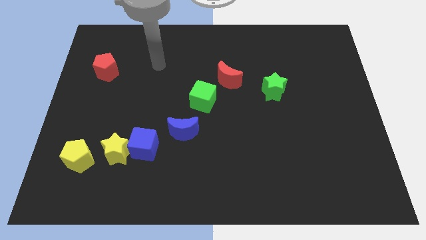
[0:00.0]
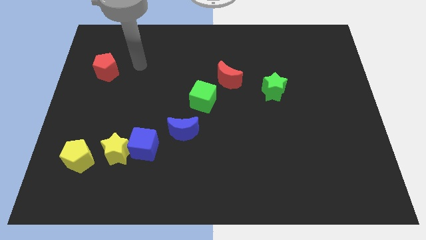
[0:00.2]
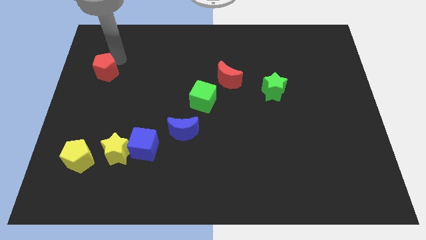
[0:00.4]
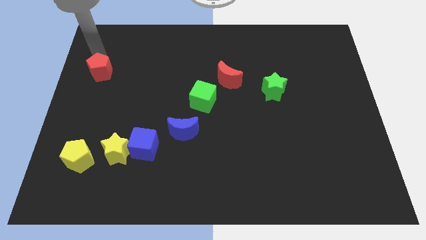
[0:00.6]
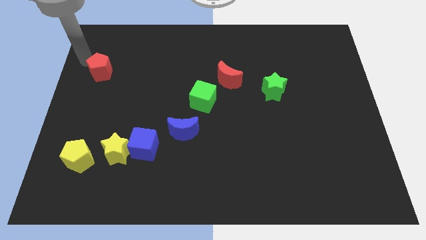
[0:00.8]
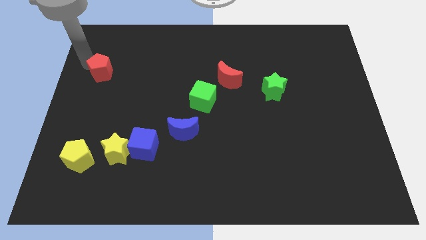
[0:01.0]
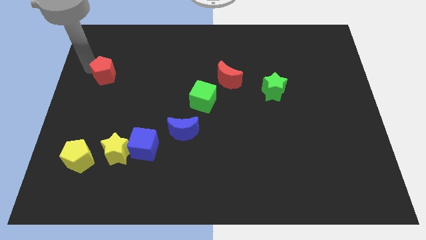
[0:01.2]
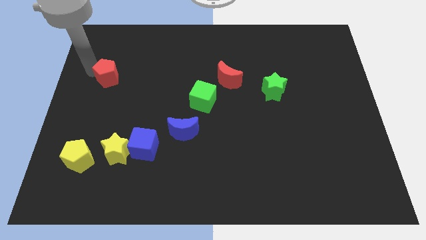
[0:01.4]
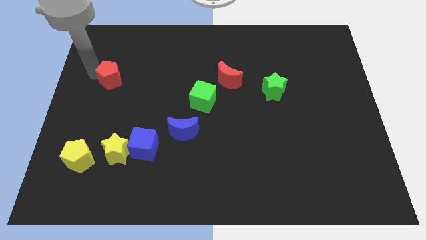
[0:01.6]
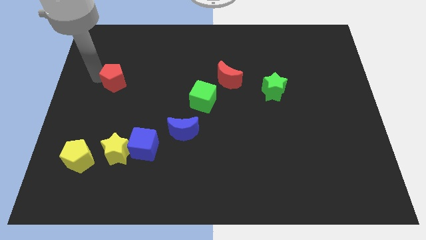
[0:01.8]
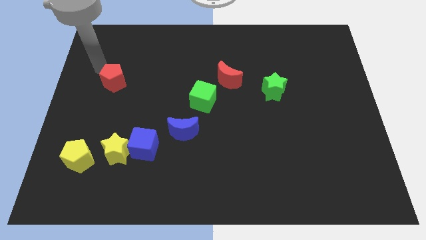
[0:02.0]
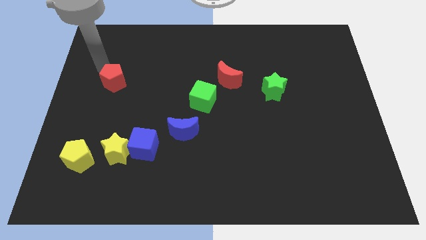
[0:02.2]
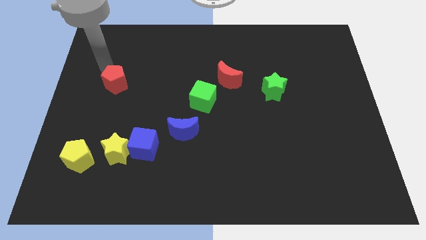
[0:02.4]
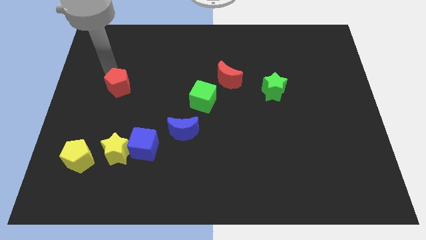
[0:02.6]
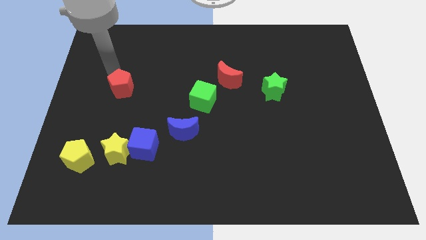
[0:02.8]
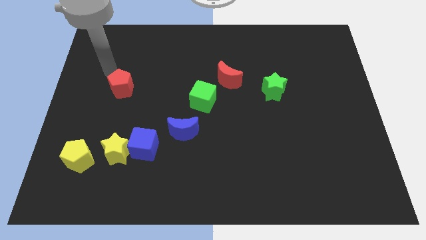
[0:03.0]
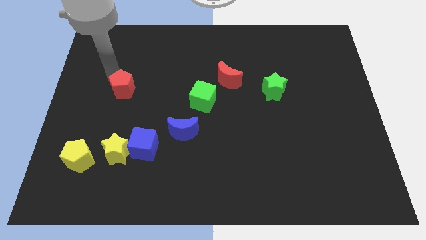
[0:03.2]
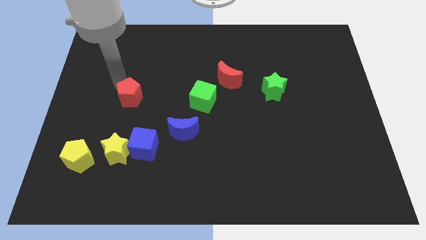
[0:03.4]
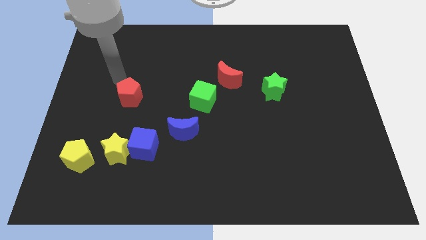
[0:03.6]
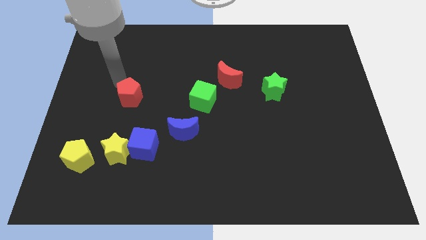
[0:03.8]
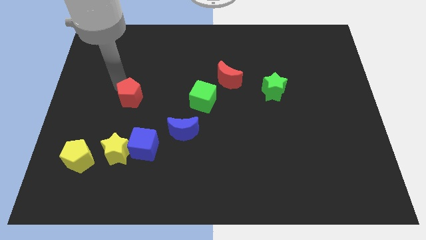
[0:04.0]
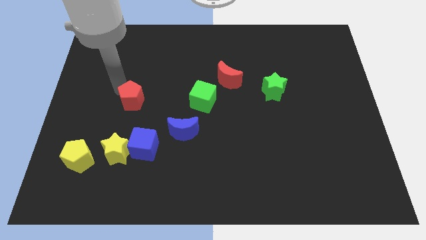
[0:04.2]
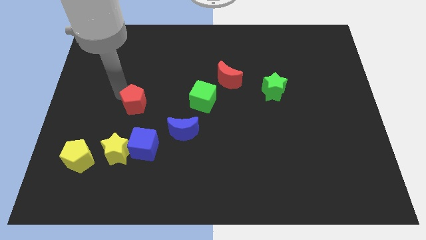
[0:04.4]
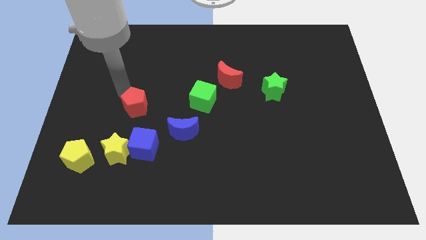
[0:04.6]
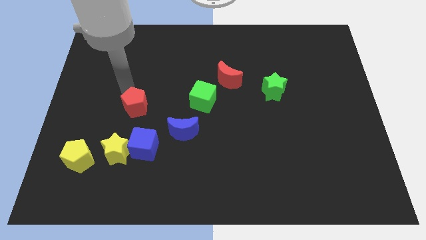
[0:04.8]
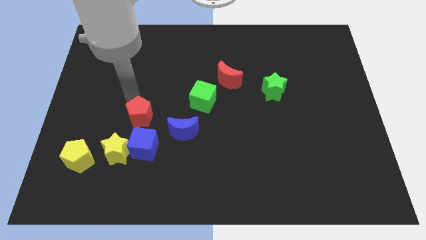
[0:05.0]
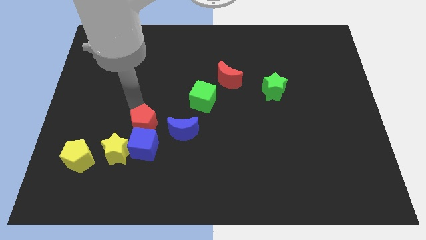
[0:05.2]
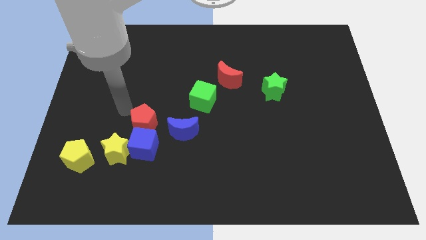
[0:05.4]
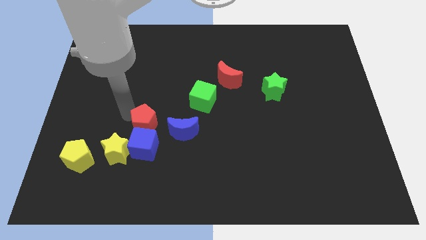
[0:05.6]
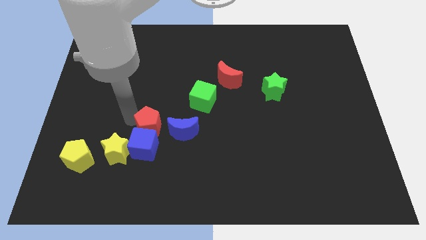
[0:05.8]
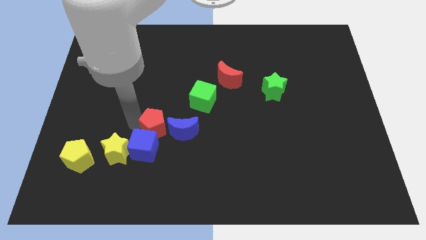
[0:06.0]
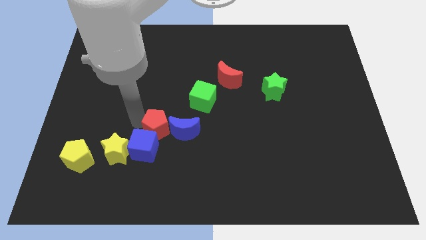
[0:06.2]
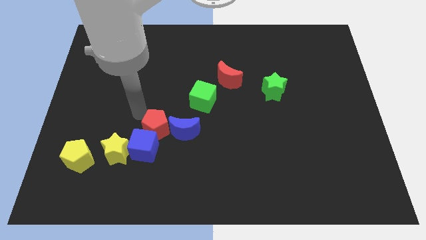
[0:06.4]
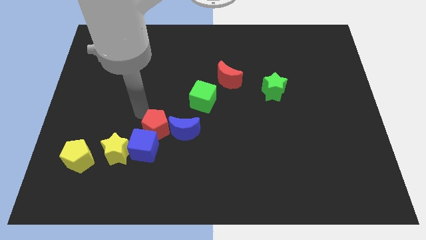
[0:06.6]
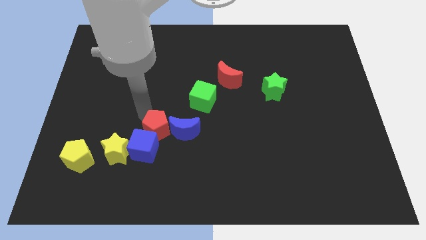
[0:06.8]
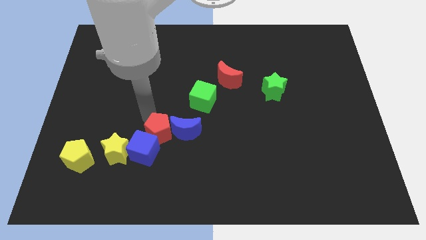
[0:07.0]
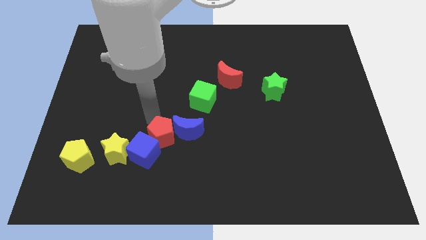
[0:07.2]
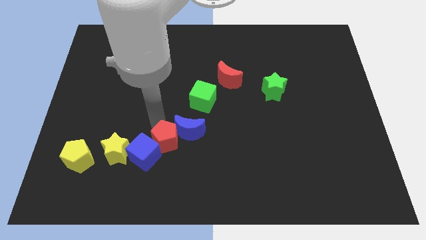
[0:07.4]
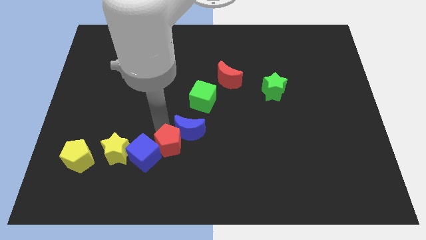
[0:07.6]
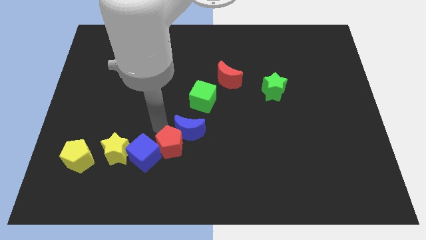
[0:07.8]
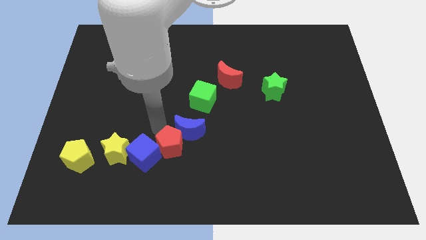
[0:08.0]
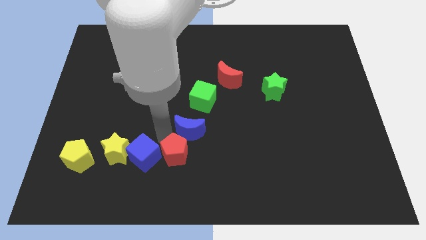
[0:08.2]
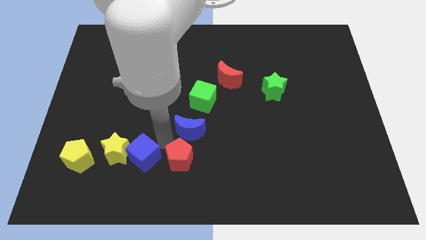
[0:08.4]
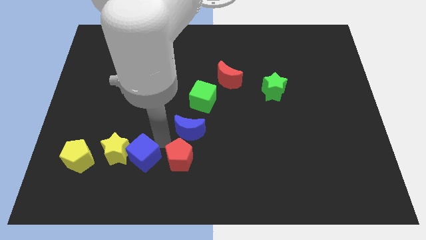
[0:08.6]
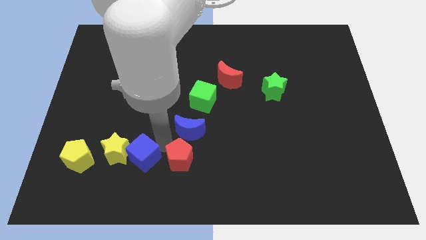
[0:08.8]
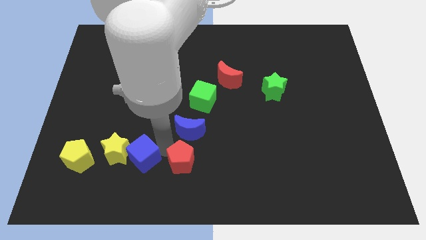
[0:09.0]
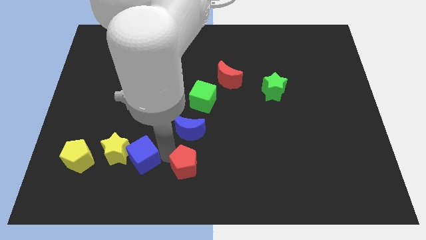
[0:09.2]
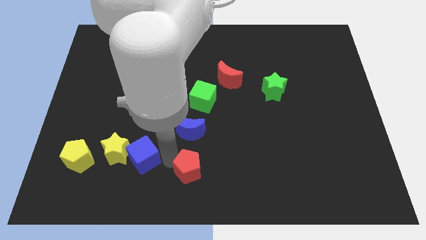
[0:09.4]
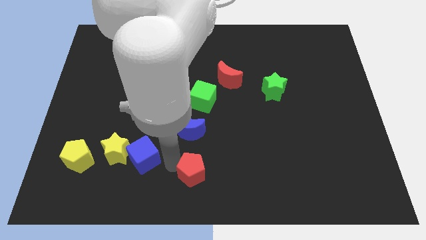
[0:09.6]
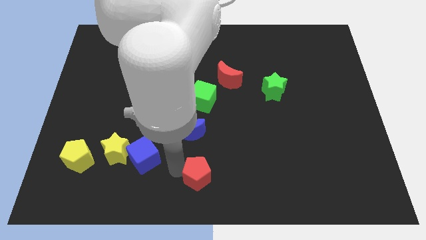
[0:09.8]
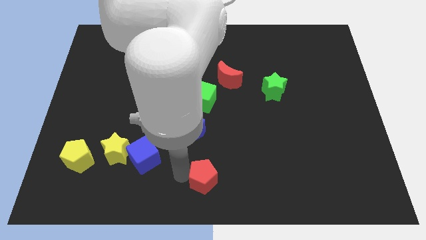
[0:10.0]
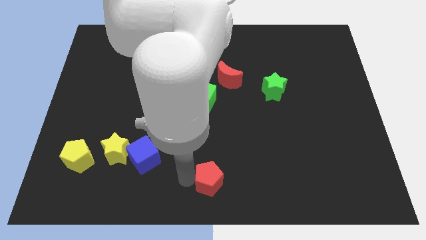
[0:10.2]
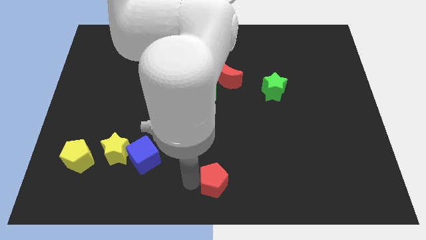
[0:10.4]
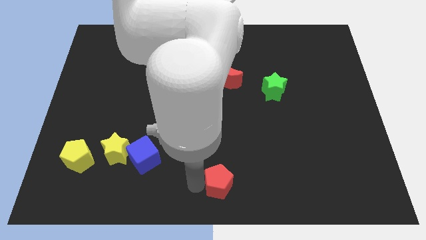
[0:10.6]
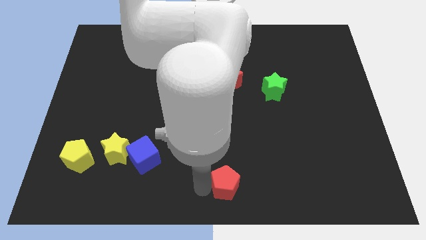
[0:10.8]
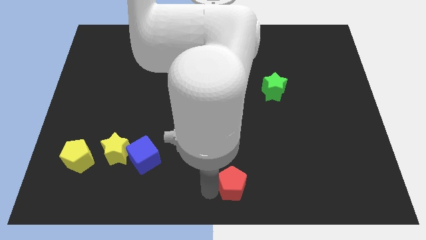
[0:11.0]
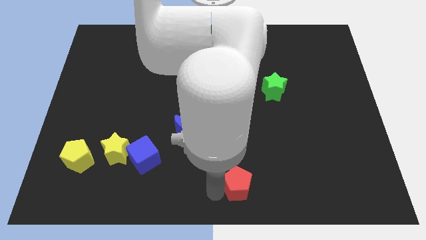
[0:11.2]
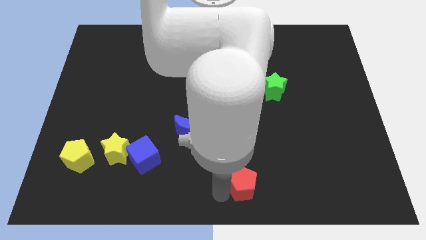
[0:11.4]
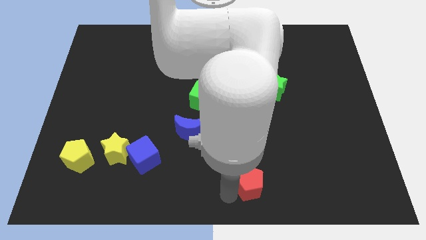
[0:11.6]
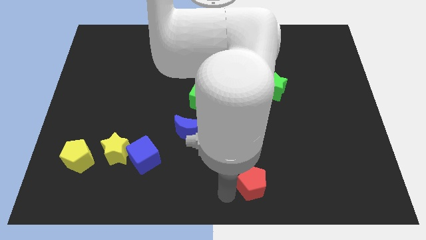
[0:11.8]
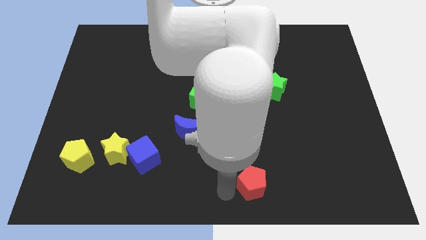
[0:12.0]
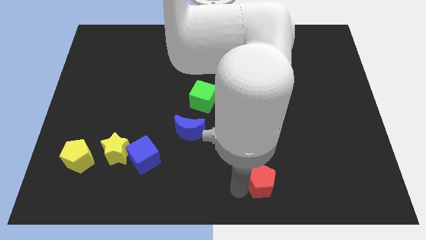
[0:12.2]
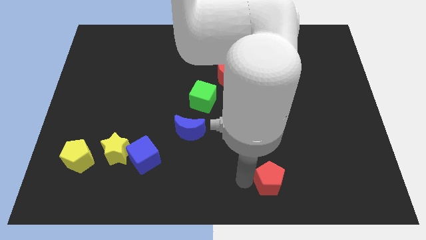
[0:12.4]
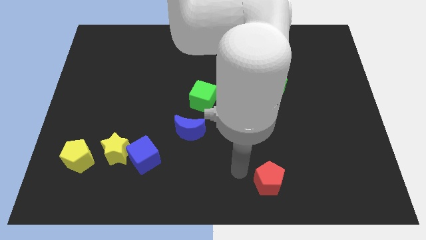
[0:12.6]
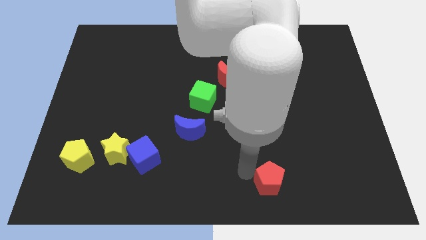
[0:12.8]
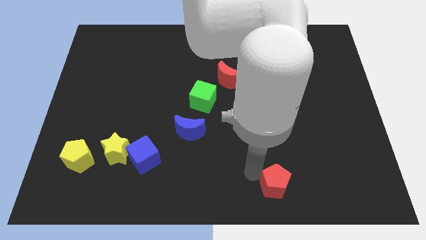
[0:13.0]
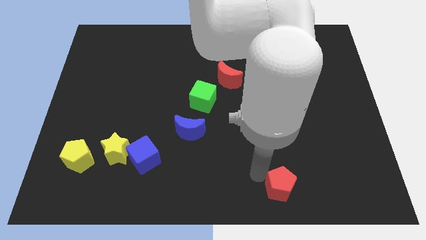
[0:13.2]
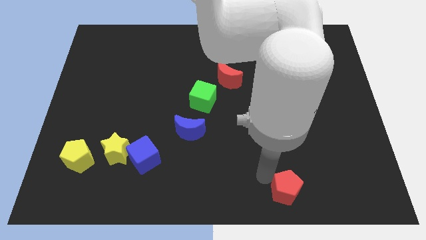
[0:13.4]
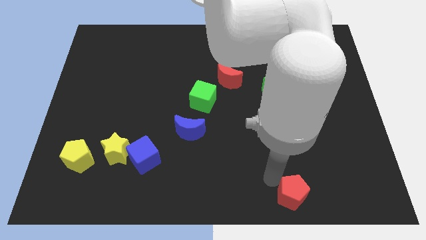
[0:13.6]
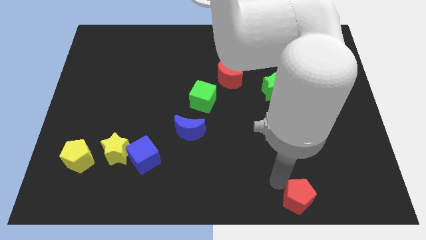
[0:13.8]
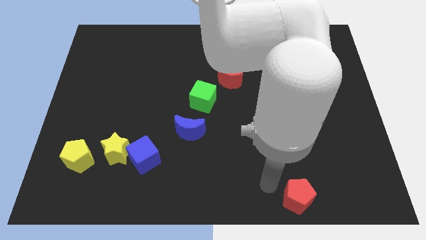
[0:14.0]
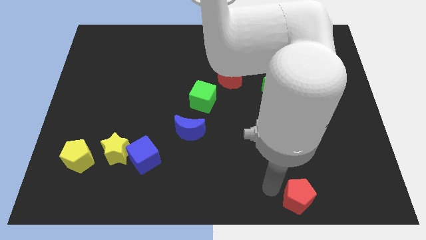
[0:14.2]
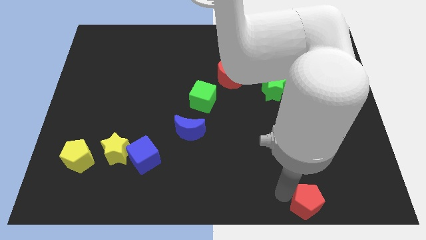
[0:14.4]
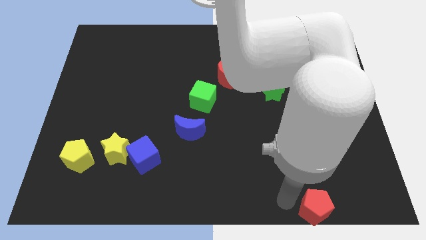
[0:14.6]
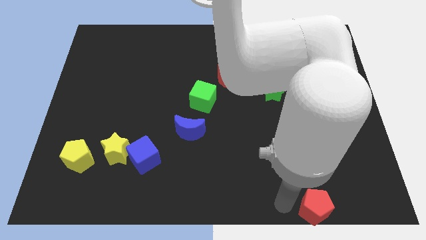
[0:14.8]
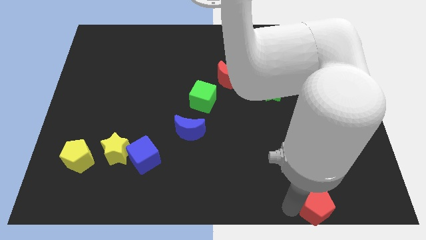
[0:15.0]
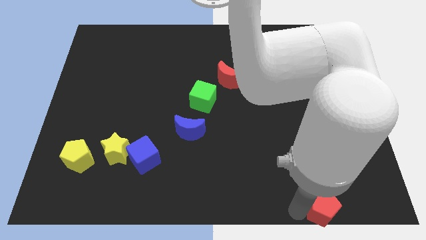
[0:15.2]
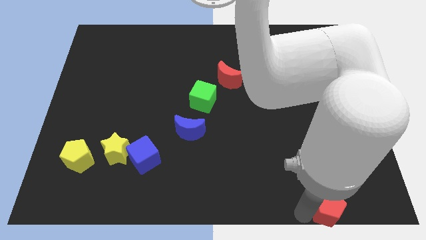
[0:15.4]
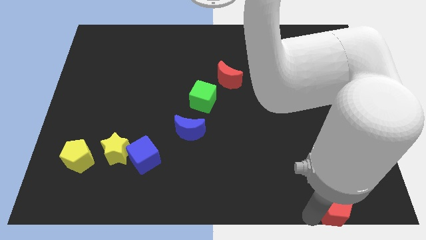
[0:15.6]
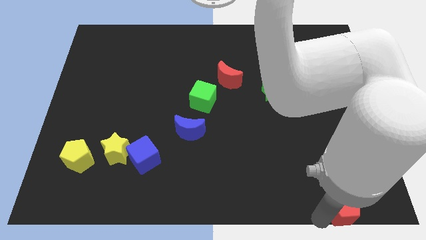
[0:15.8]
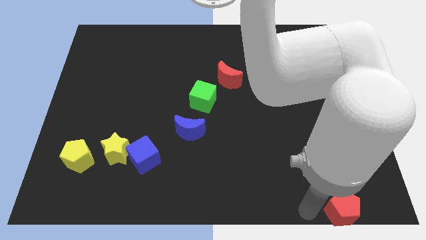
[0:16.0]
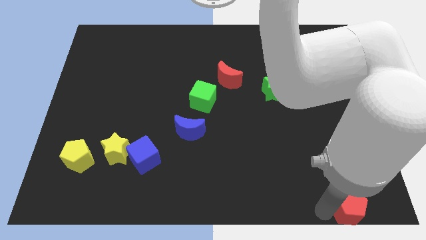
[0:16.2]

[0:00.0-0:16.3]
push the red pentagon to the bottom right
